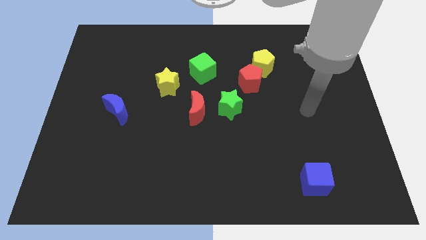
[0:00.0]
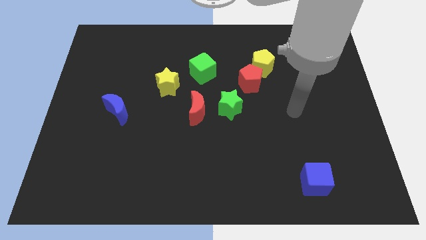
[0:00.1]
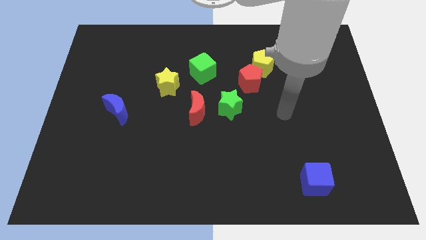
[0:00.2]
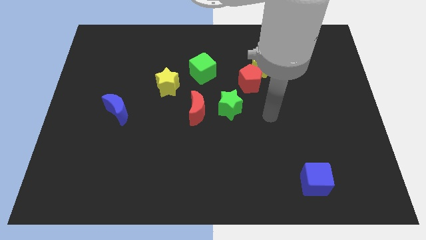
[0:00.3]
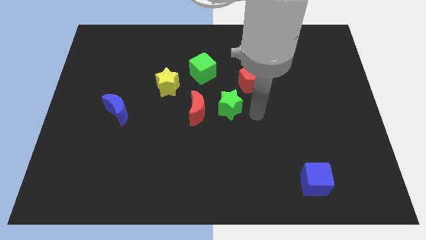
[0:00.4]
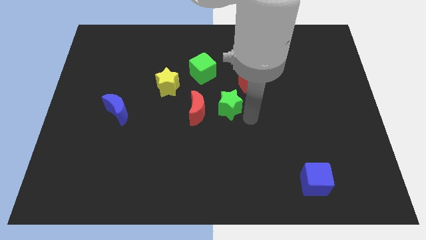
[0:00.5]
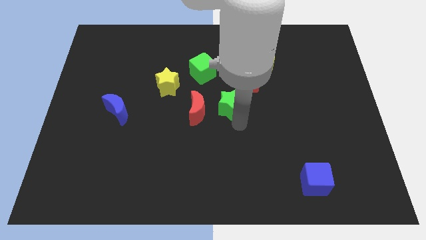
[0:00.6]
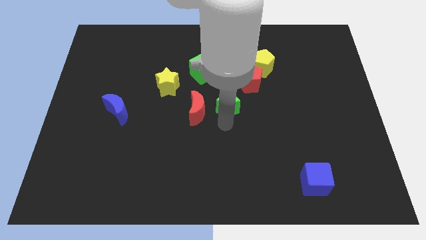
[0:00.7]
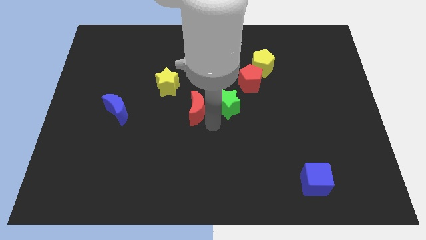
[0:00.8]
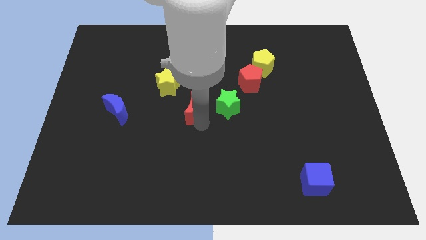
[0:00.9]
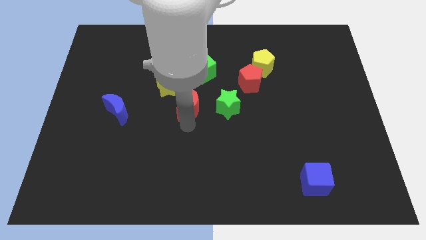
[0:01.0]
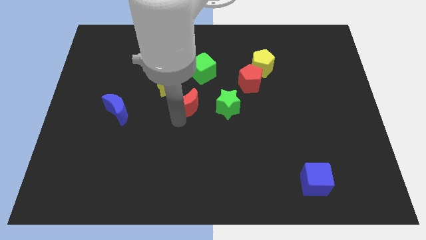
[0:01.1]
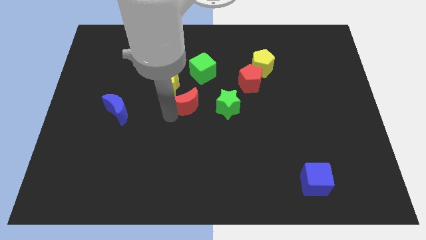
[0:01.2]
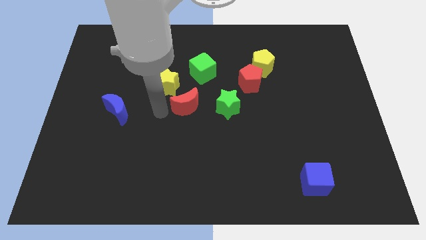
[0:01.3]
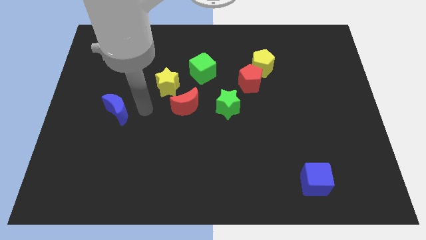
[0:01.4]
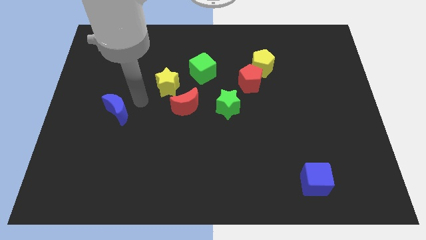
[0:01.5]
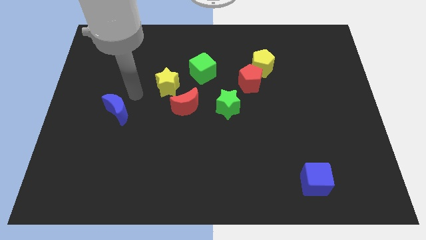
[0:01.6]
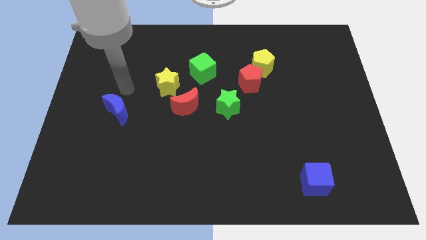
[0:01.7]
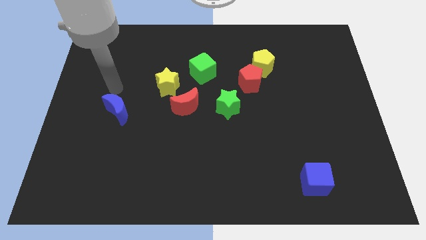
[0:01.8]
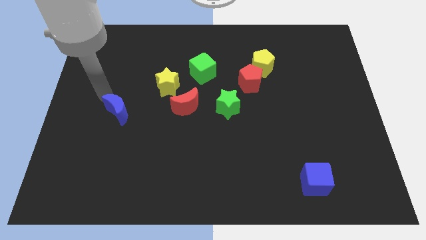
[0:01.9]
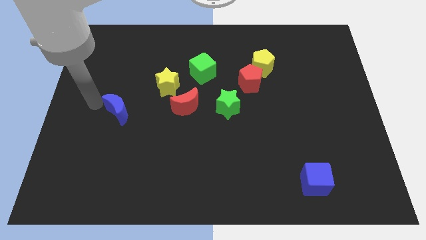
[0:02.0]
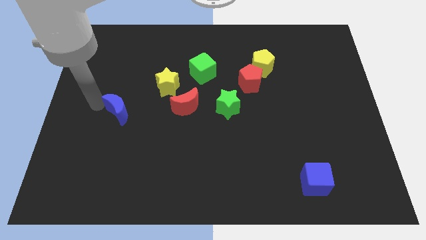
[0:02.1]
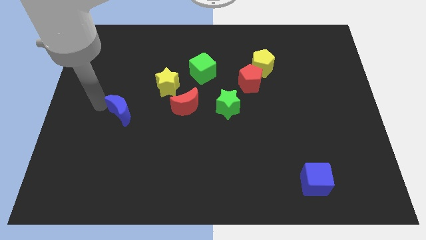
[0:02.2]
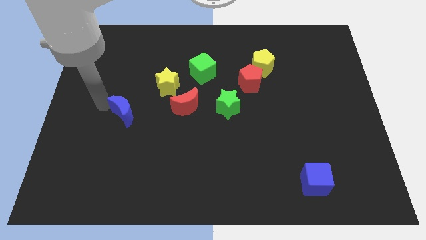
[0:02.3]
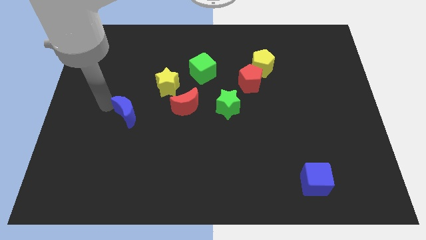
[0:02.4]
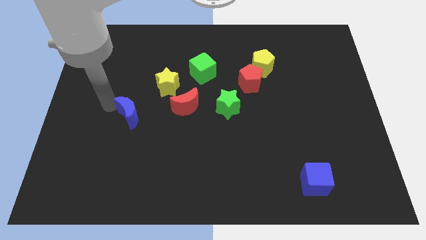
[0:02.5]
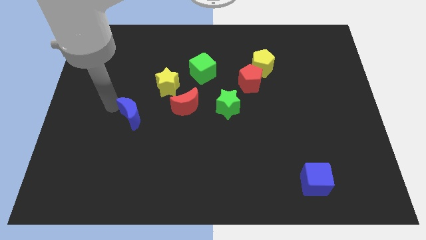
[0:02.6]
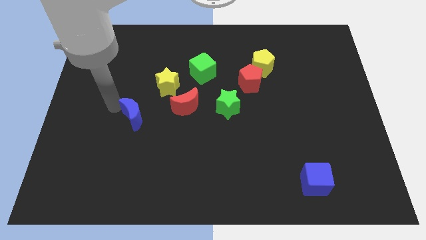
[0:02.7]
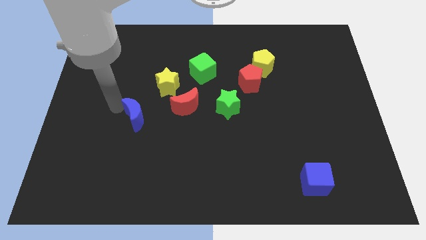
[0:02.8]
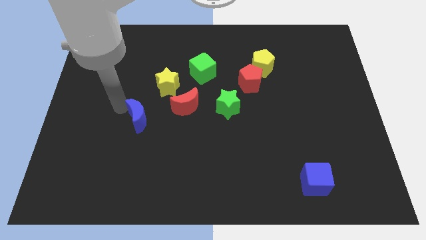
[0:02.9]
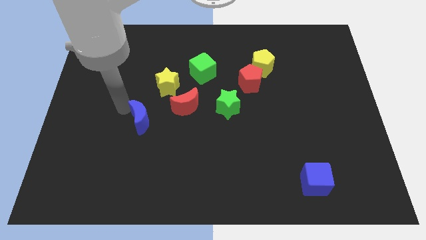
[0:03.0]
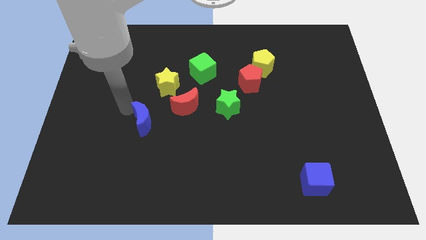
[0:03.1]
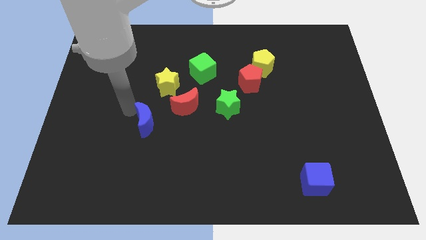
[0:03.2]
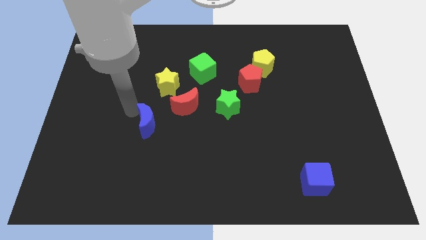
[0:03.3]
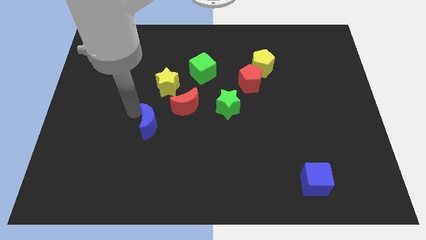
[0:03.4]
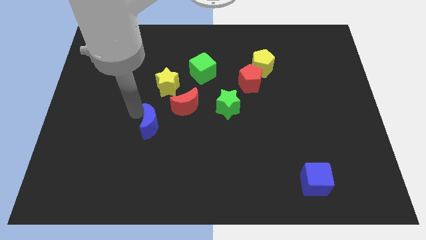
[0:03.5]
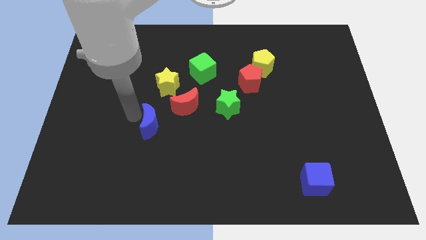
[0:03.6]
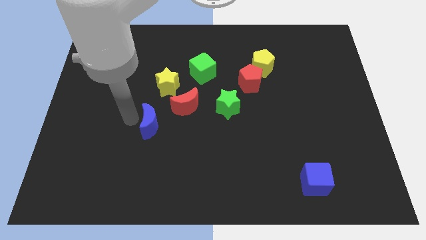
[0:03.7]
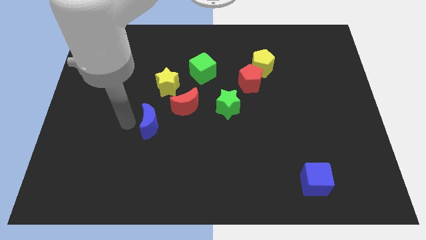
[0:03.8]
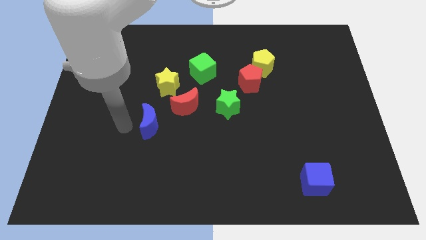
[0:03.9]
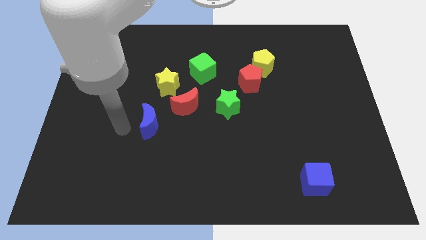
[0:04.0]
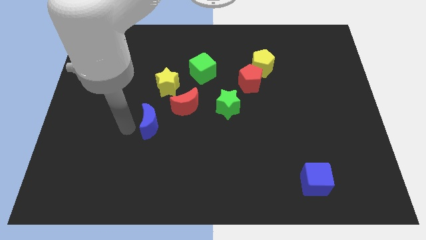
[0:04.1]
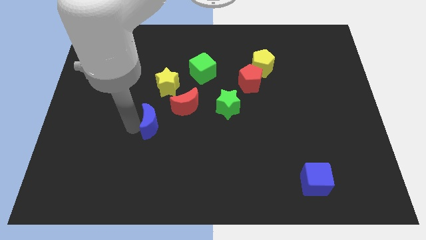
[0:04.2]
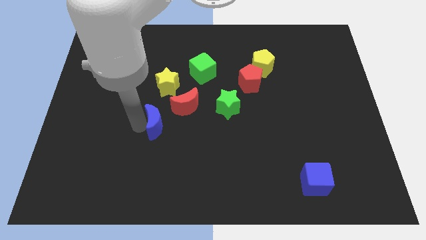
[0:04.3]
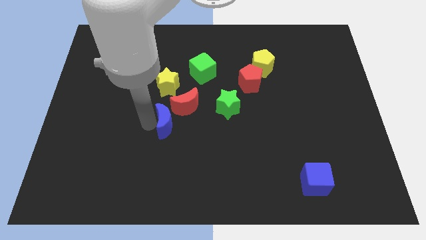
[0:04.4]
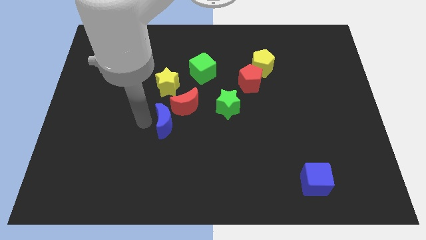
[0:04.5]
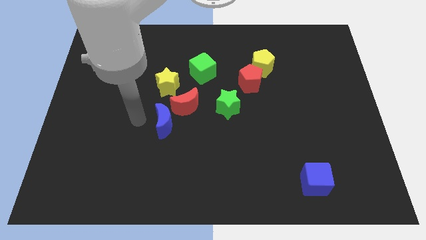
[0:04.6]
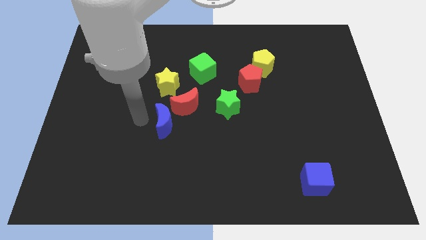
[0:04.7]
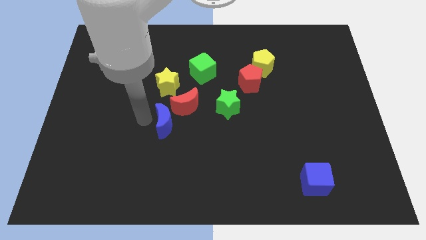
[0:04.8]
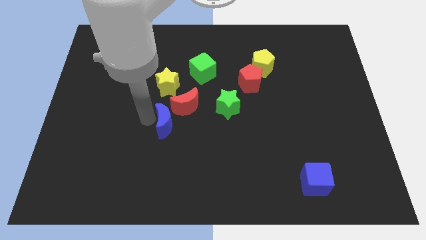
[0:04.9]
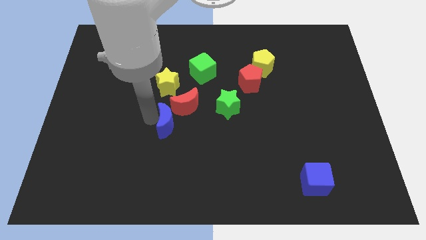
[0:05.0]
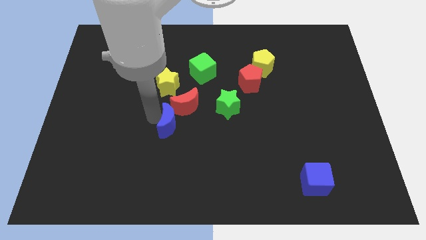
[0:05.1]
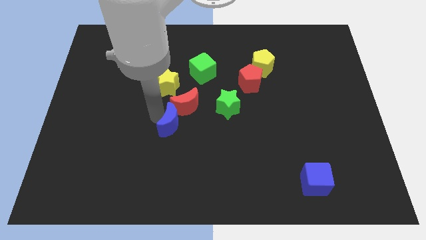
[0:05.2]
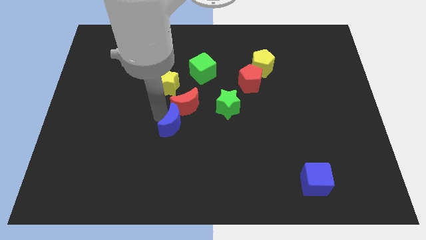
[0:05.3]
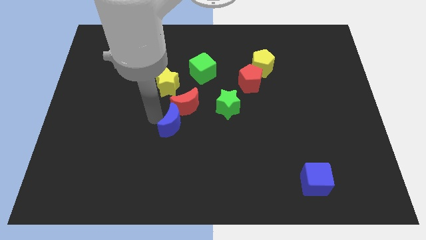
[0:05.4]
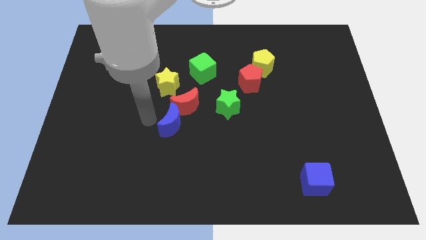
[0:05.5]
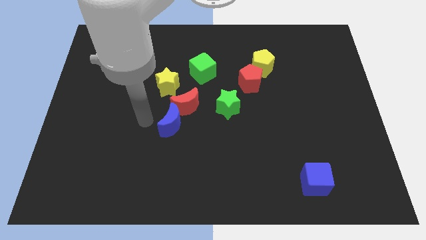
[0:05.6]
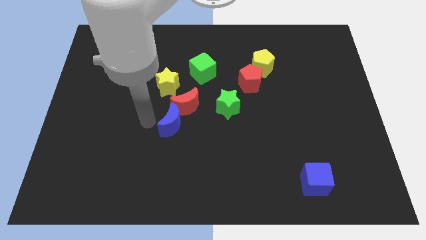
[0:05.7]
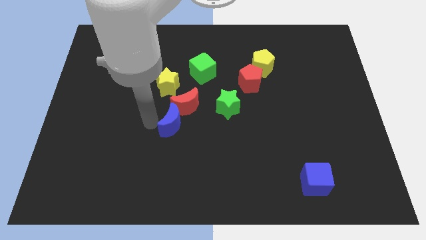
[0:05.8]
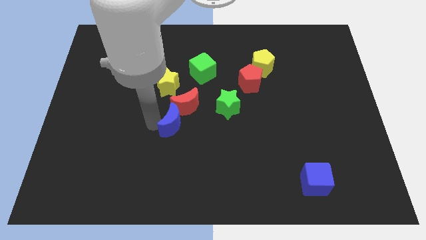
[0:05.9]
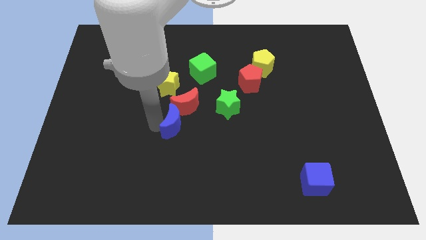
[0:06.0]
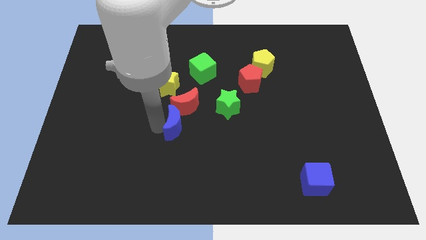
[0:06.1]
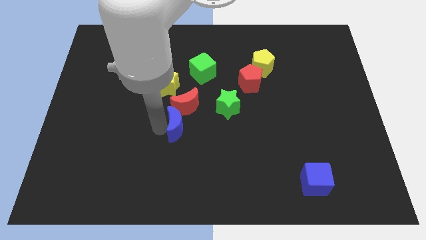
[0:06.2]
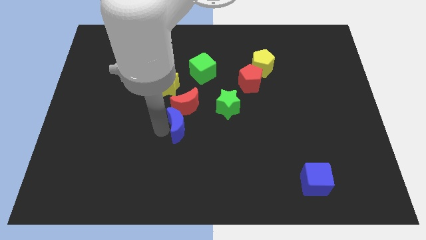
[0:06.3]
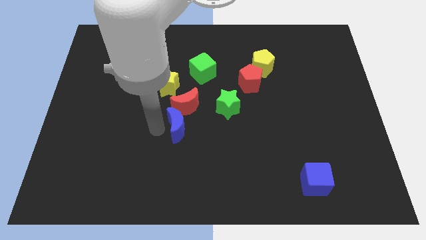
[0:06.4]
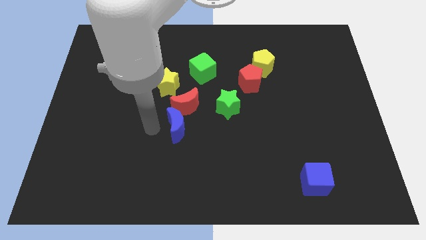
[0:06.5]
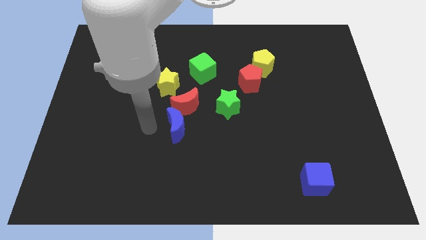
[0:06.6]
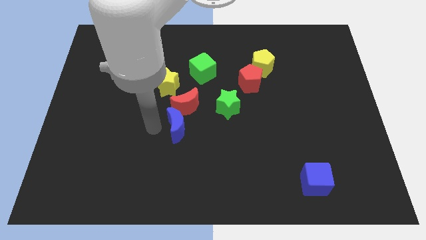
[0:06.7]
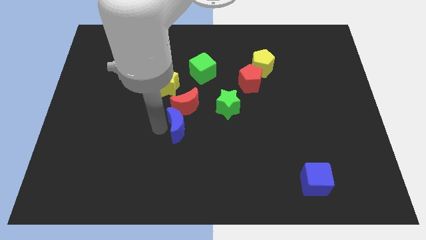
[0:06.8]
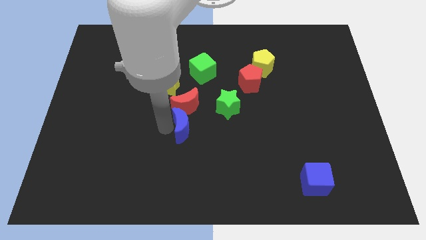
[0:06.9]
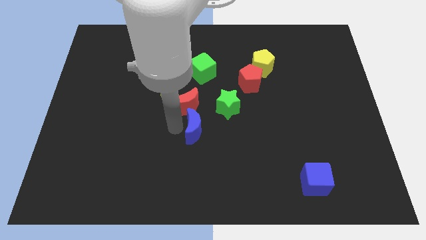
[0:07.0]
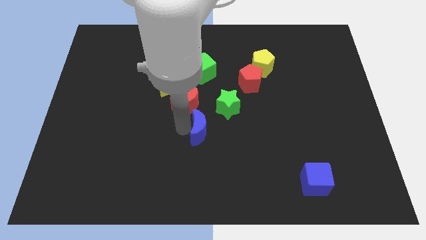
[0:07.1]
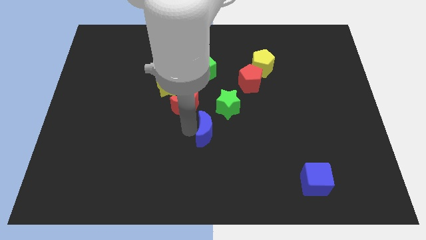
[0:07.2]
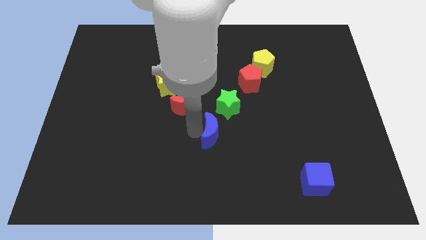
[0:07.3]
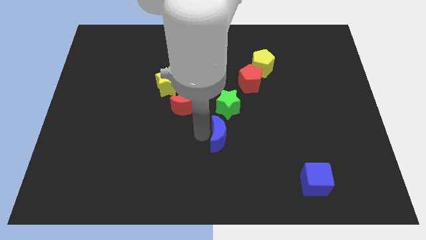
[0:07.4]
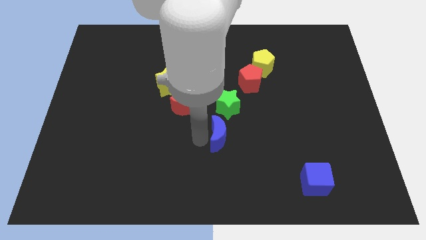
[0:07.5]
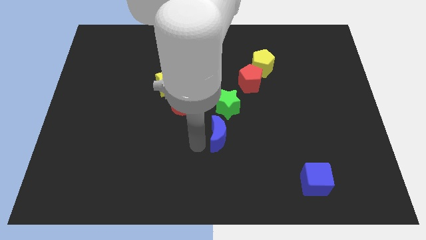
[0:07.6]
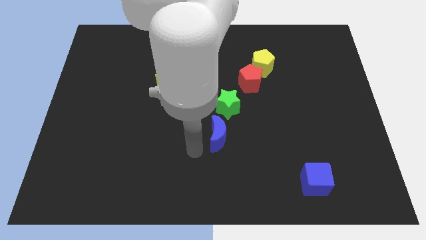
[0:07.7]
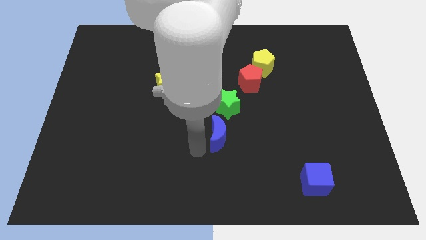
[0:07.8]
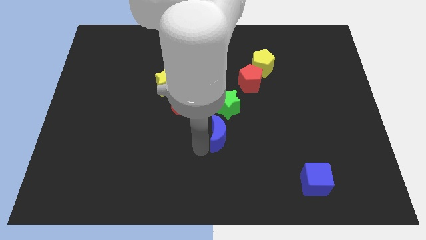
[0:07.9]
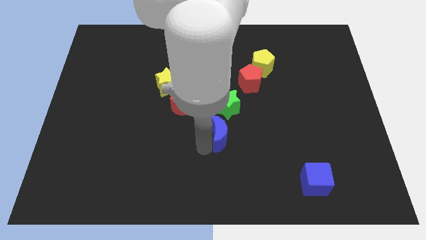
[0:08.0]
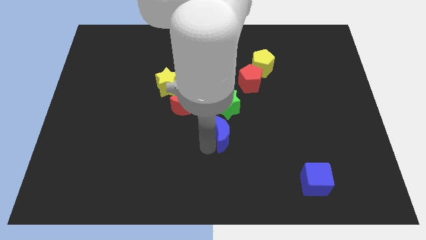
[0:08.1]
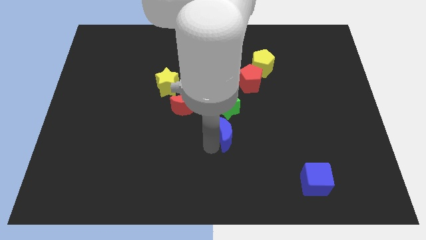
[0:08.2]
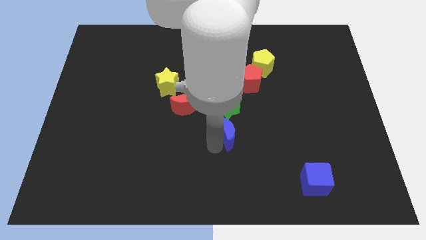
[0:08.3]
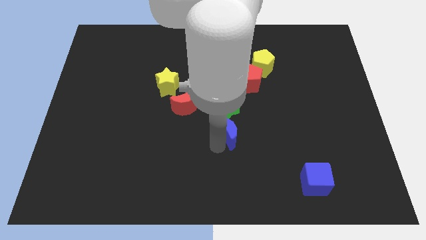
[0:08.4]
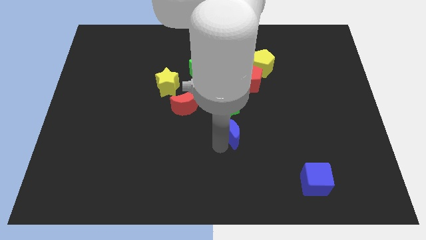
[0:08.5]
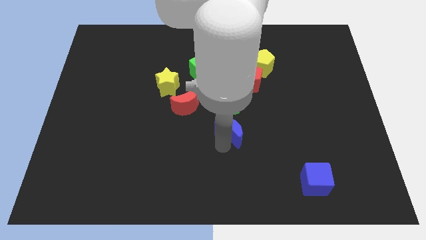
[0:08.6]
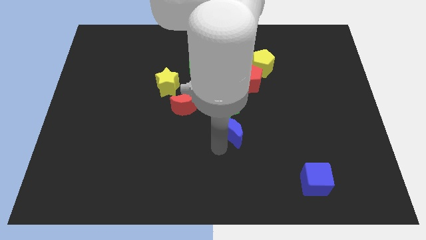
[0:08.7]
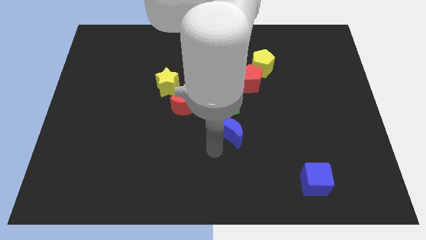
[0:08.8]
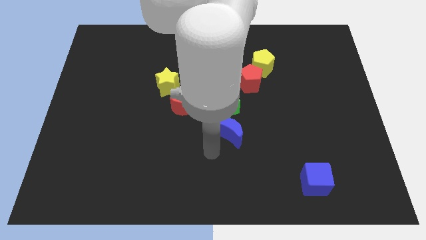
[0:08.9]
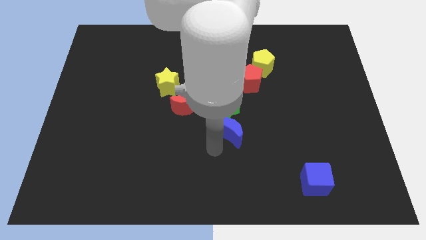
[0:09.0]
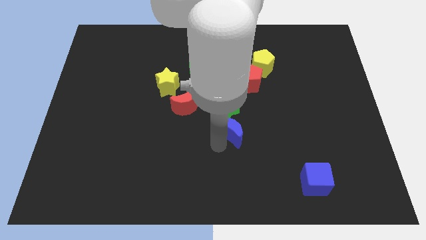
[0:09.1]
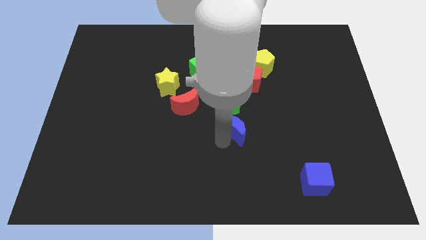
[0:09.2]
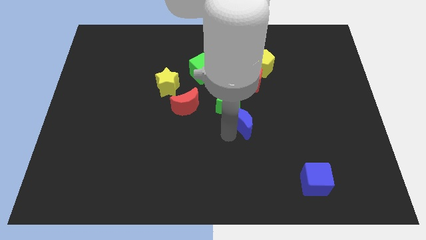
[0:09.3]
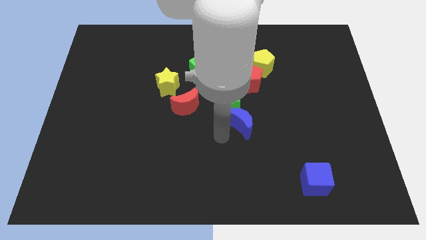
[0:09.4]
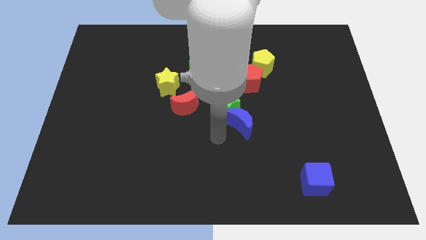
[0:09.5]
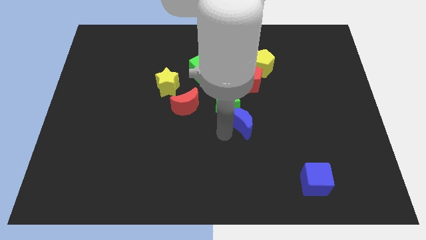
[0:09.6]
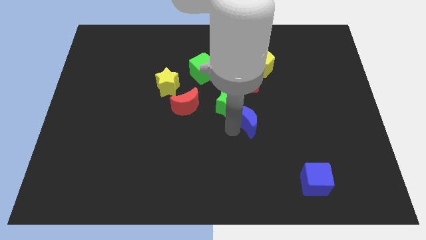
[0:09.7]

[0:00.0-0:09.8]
push the blue moon to the right of the green star
